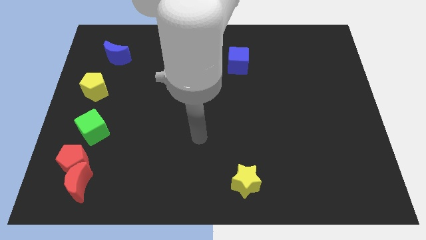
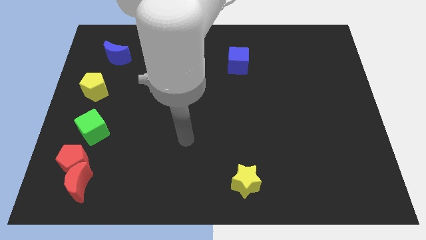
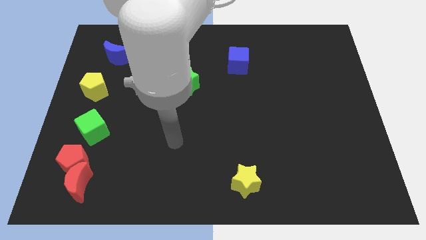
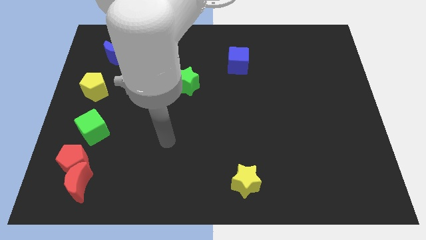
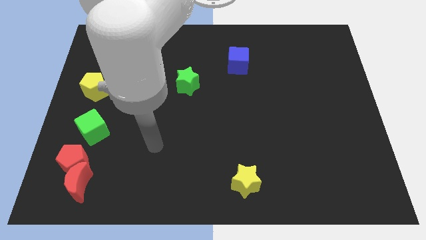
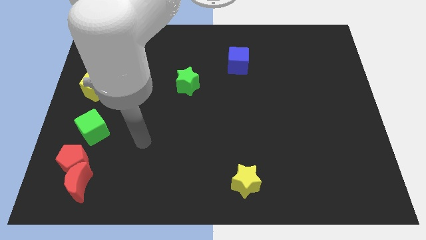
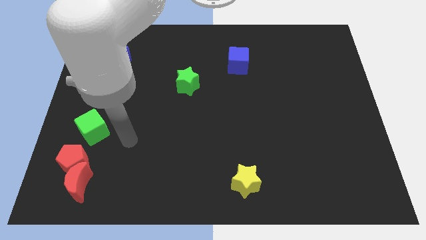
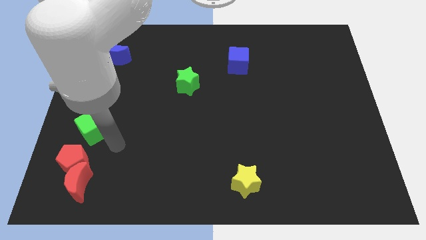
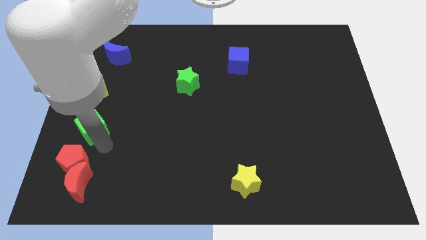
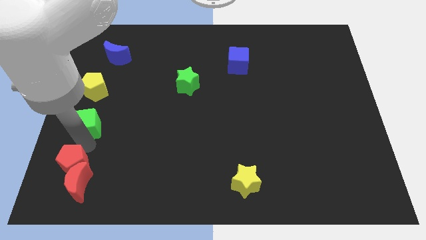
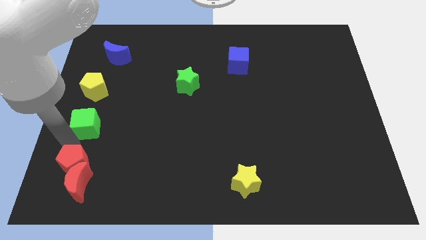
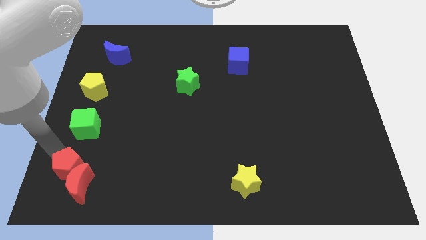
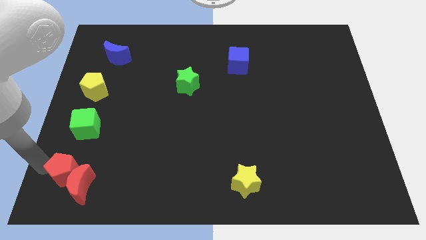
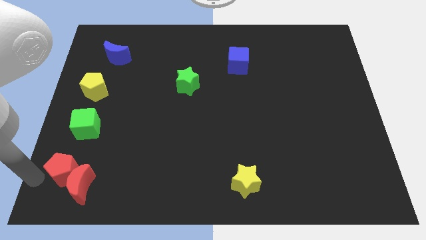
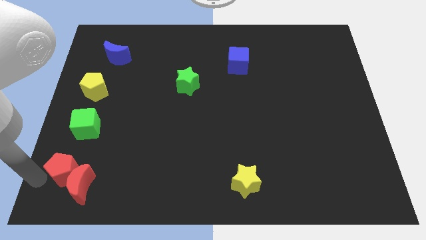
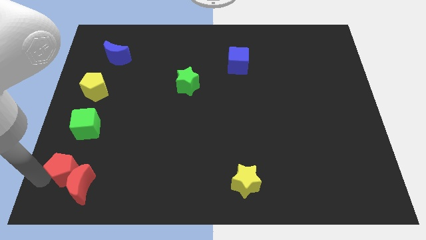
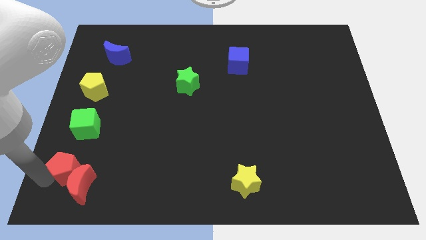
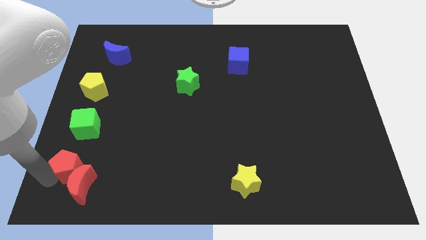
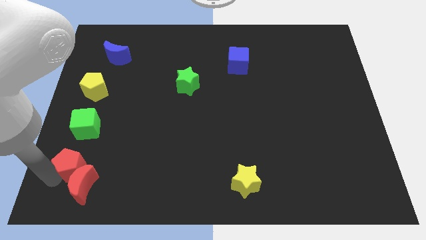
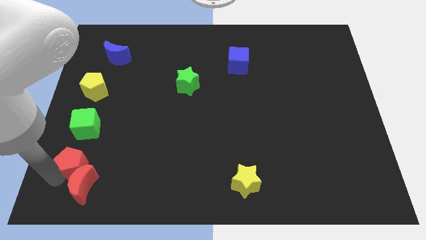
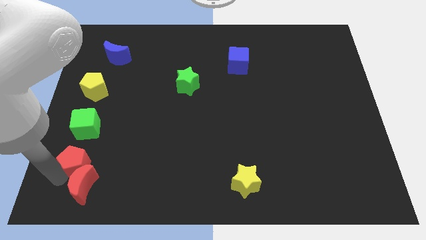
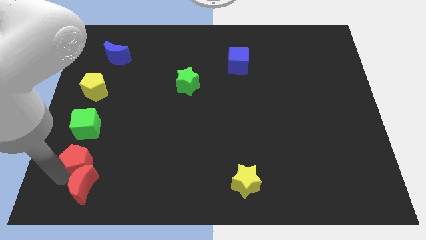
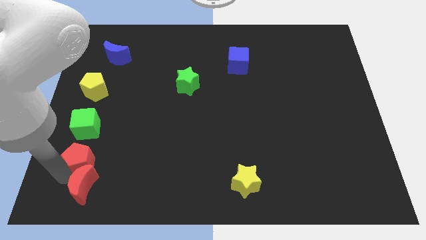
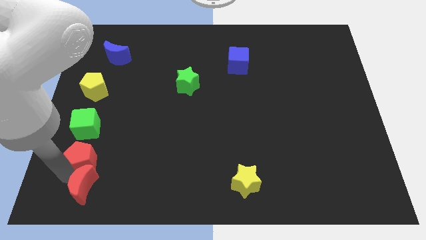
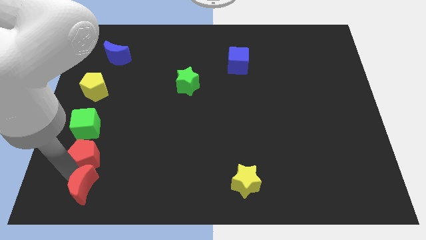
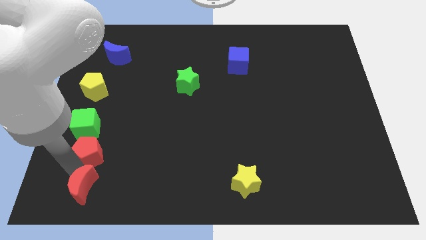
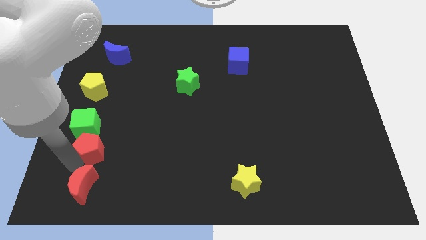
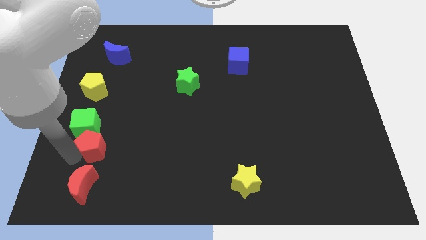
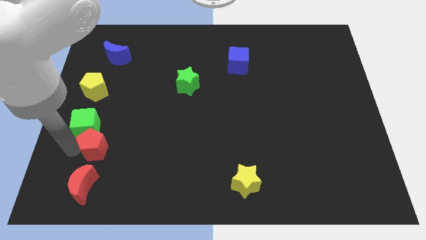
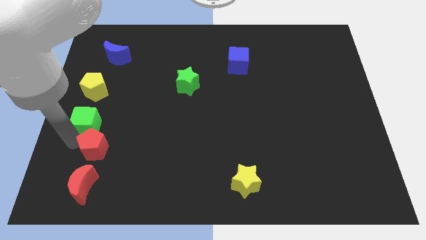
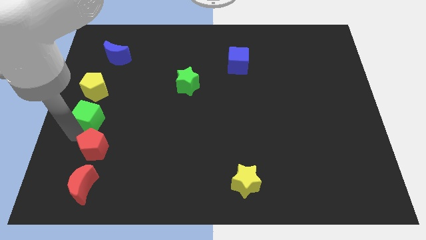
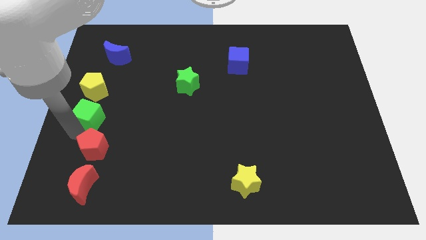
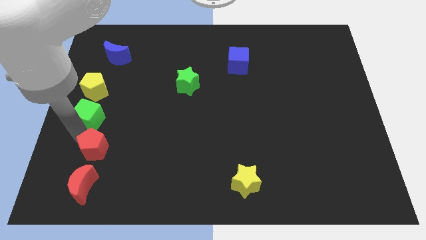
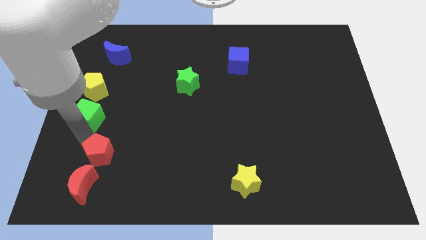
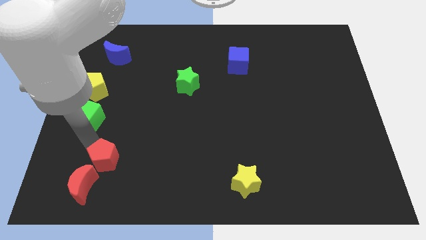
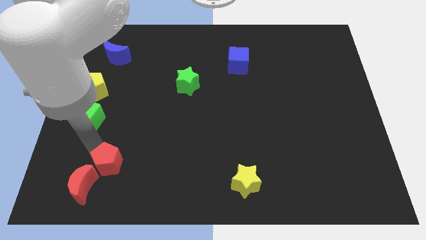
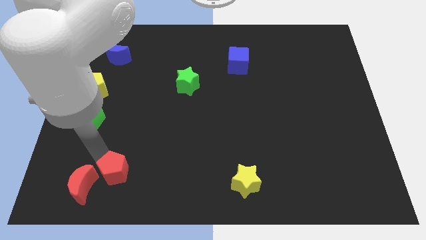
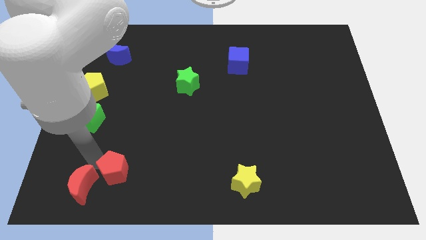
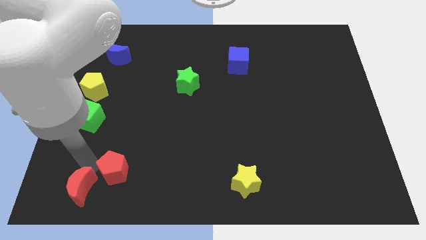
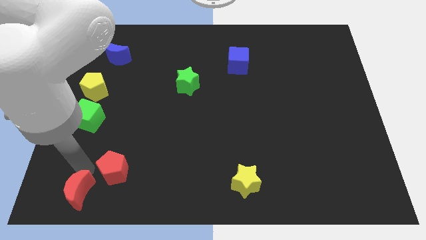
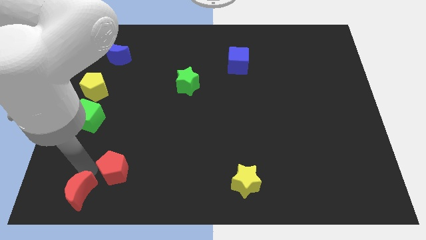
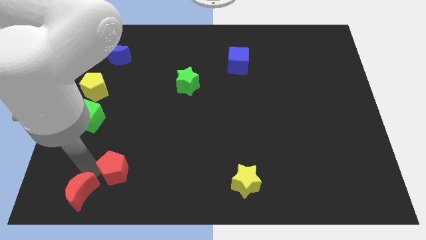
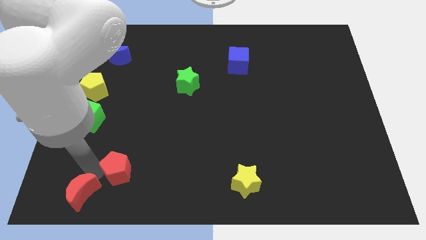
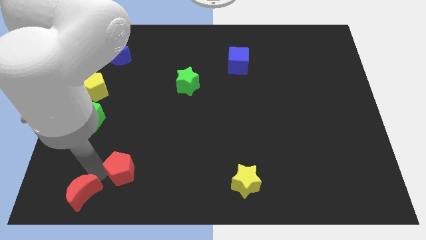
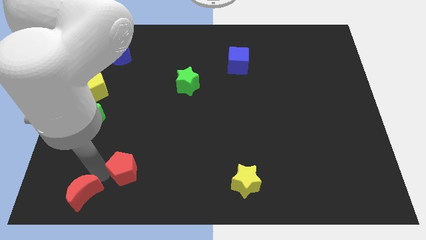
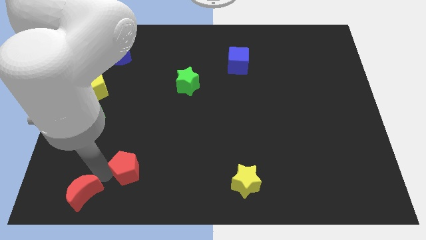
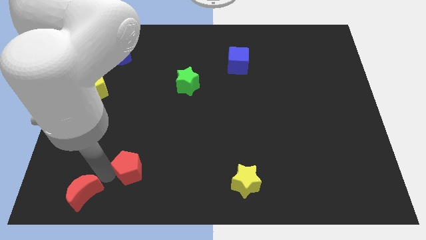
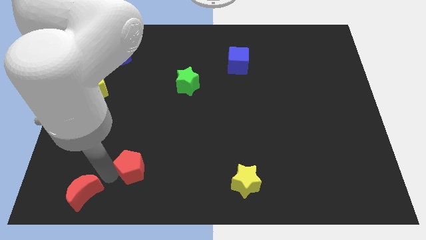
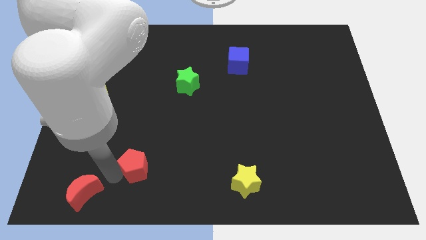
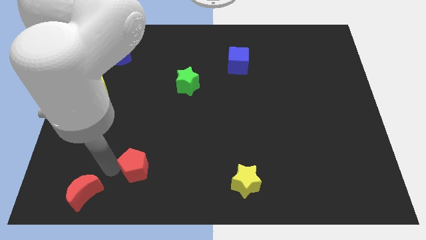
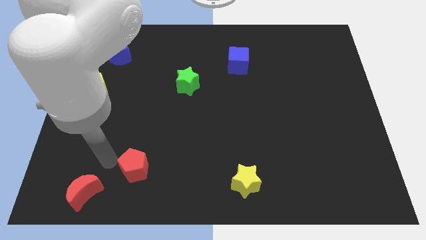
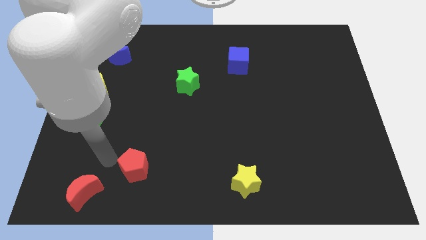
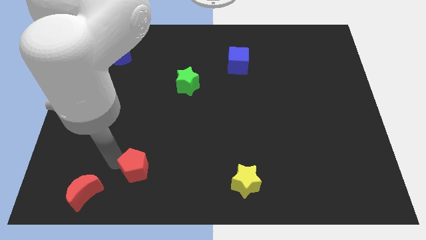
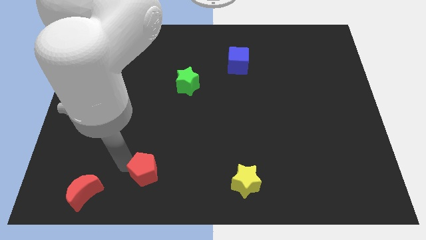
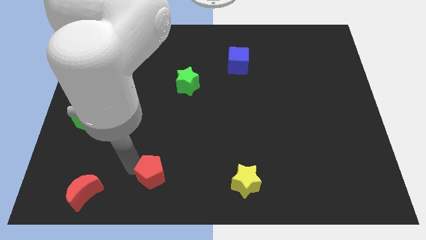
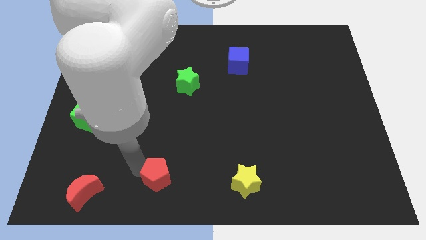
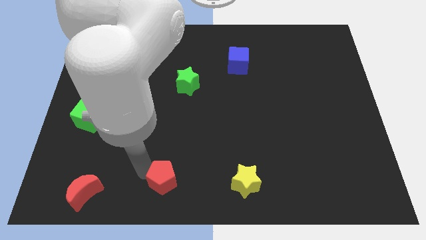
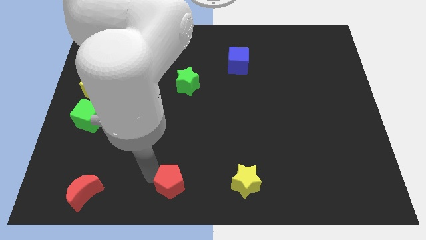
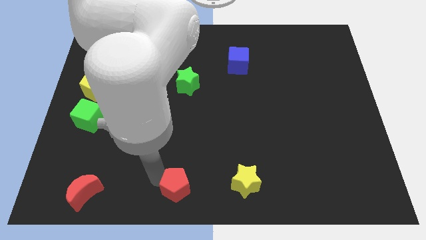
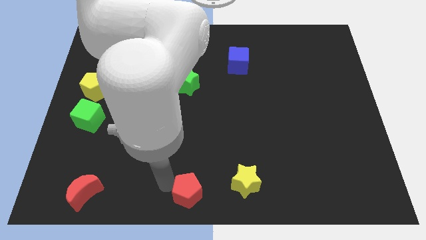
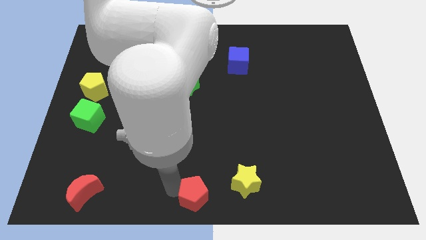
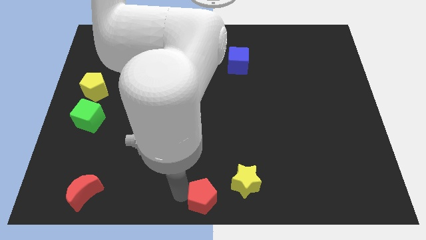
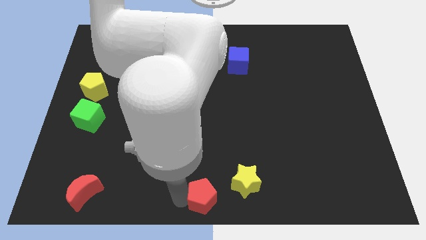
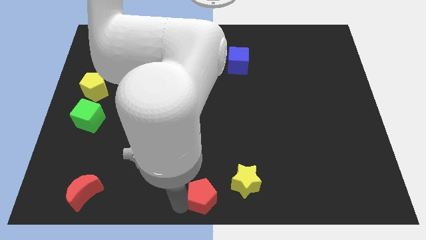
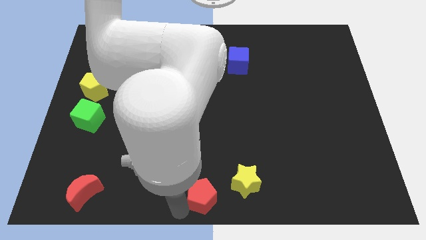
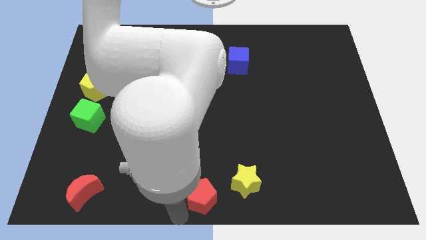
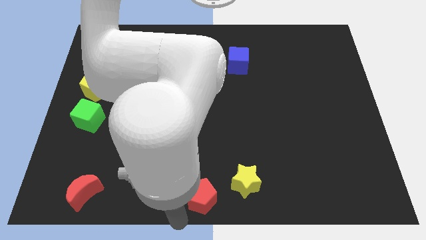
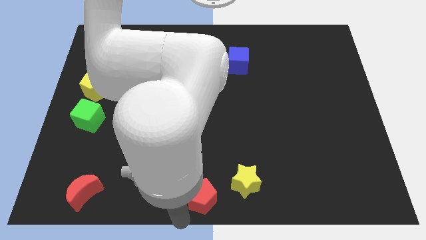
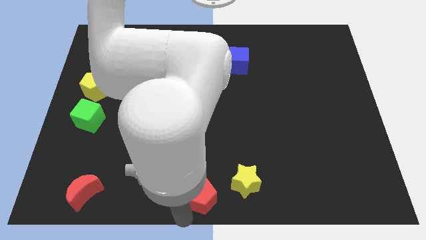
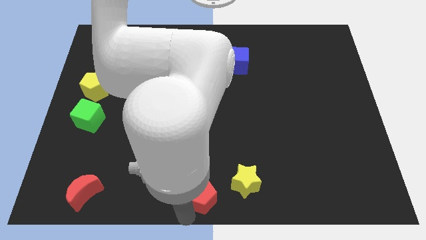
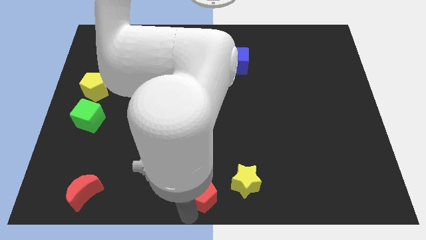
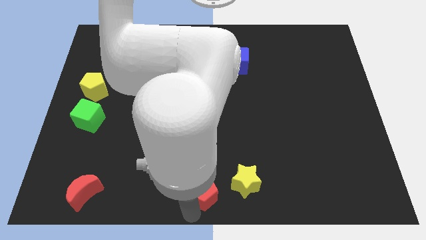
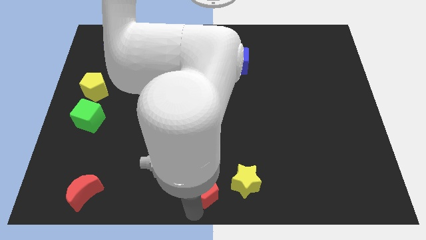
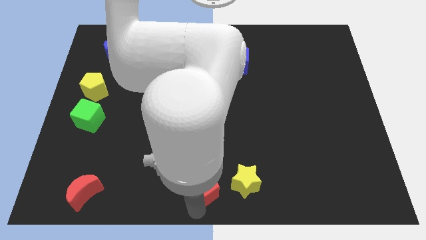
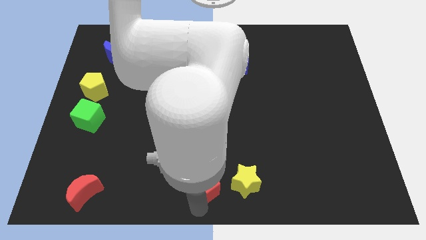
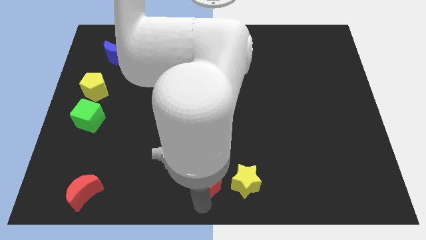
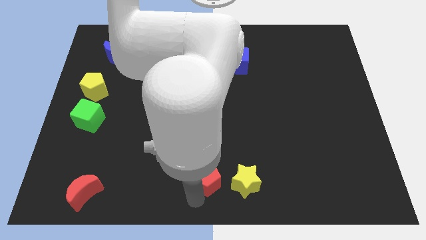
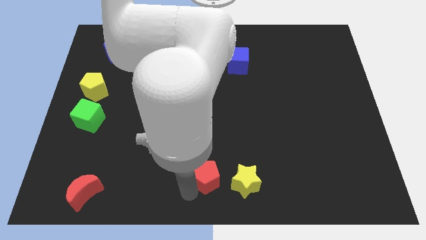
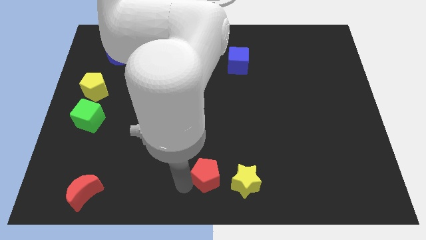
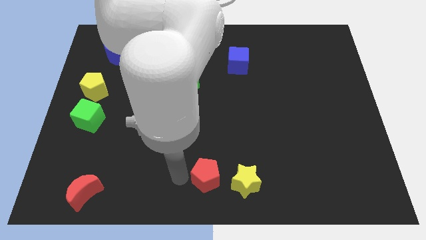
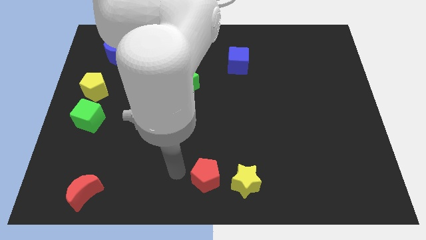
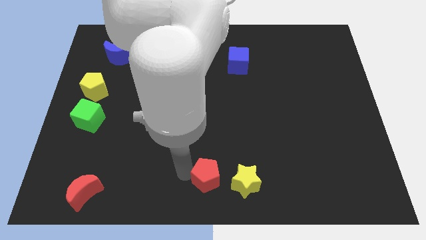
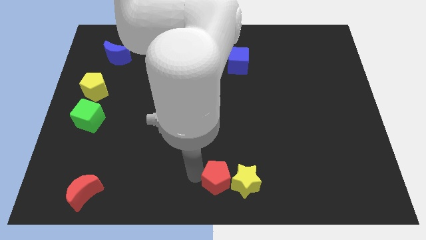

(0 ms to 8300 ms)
put the red pentagon close to the yellow star
